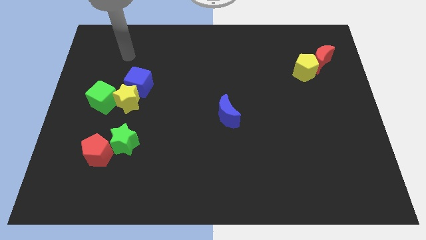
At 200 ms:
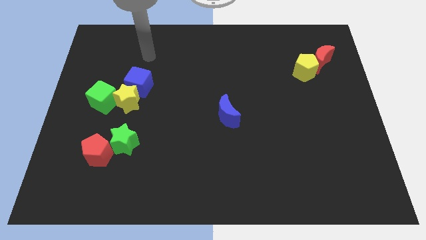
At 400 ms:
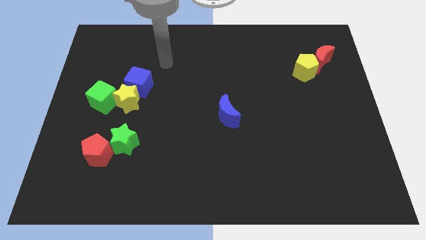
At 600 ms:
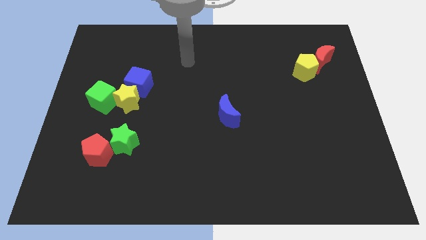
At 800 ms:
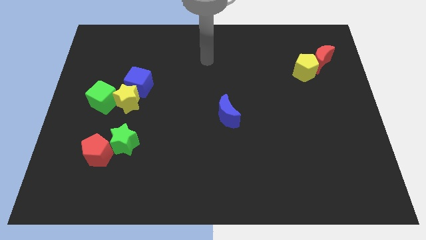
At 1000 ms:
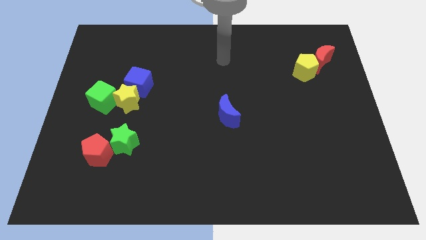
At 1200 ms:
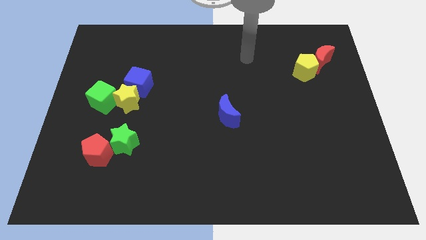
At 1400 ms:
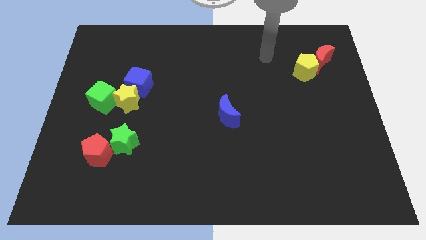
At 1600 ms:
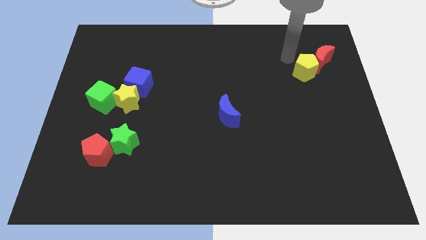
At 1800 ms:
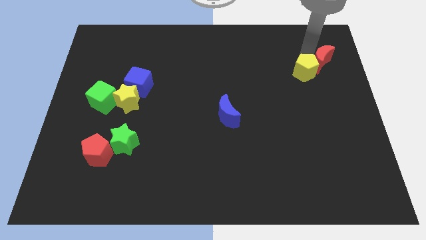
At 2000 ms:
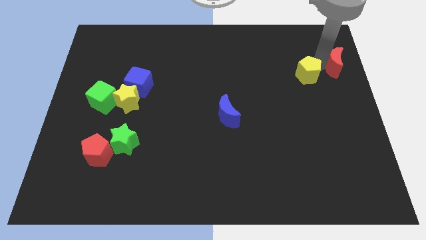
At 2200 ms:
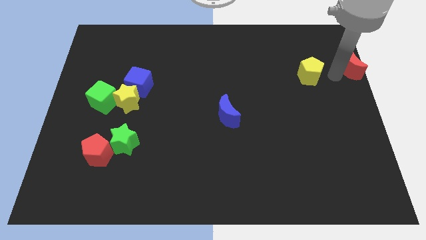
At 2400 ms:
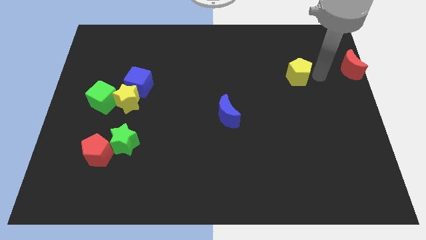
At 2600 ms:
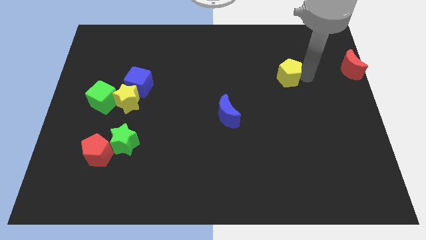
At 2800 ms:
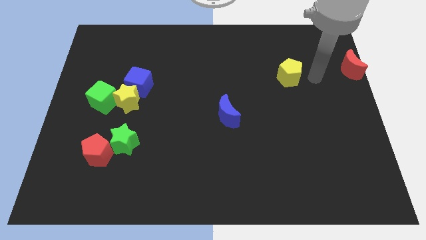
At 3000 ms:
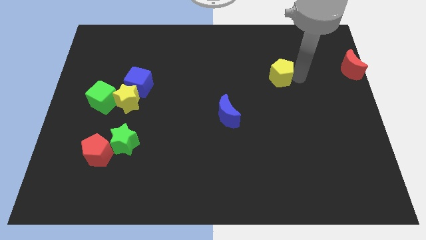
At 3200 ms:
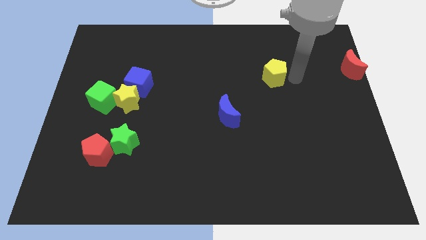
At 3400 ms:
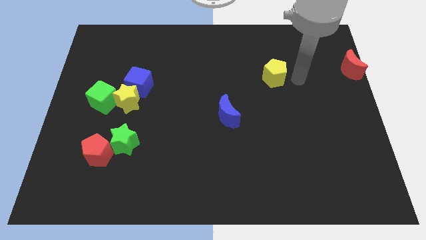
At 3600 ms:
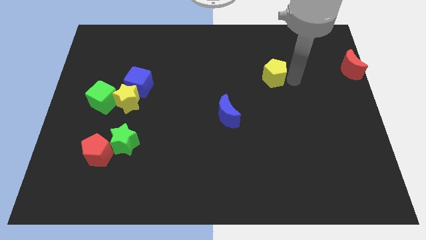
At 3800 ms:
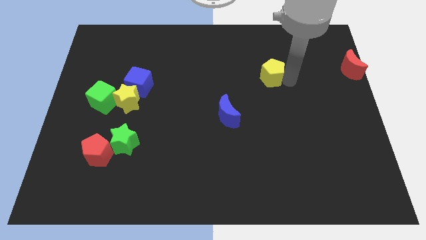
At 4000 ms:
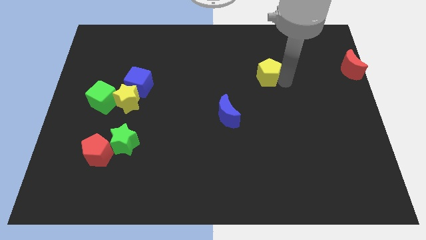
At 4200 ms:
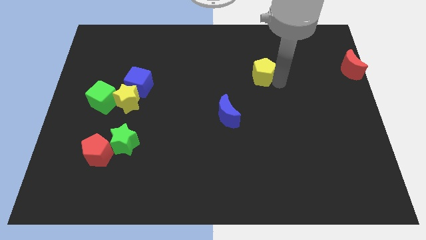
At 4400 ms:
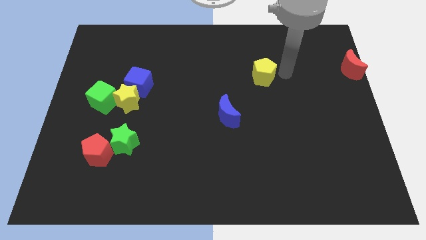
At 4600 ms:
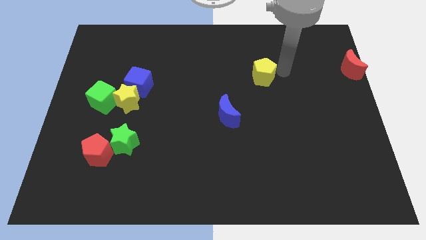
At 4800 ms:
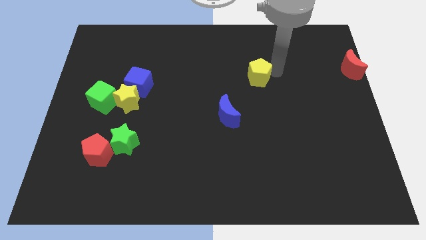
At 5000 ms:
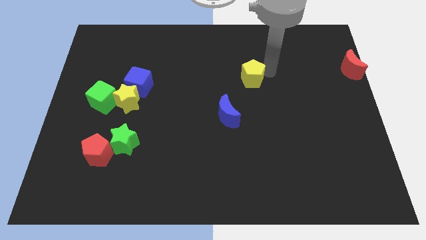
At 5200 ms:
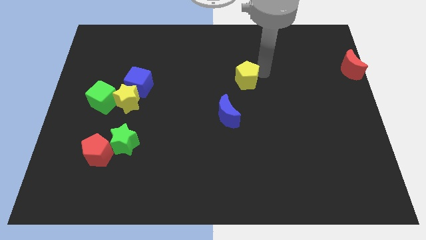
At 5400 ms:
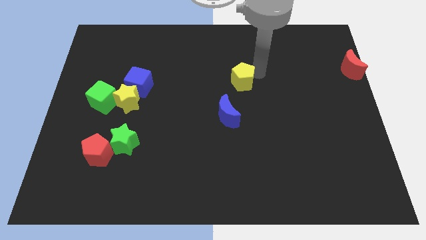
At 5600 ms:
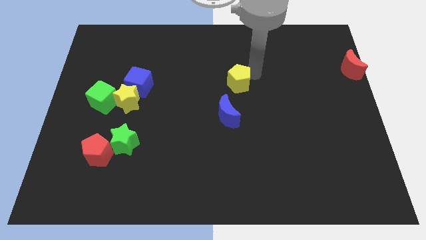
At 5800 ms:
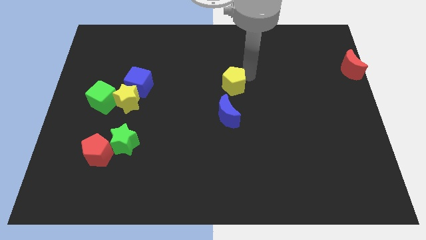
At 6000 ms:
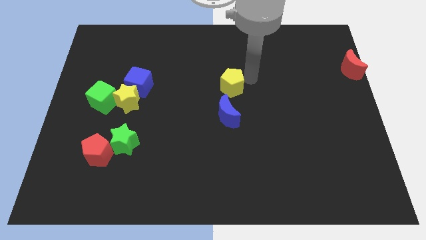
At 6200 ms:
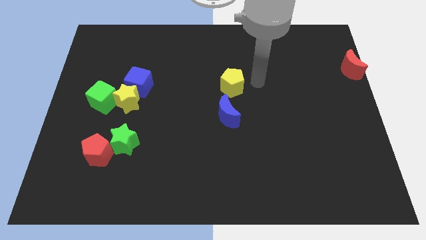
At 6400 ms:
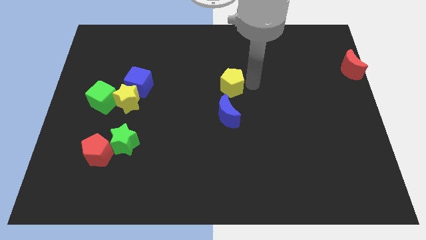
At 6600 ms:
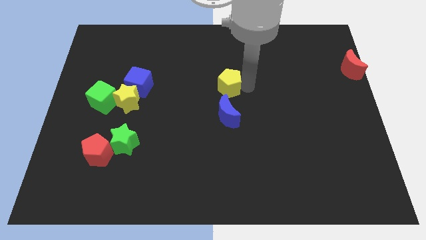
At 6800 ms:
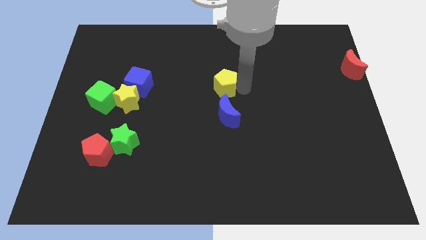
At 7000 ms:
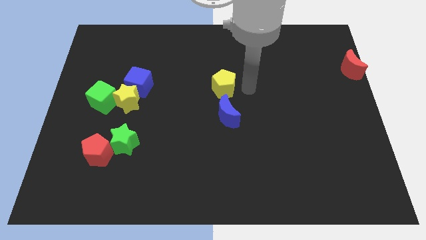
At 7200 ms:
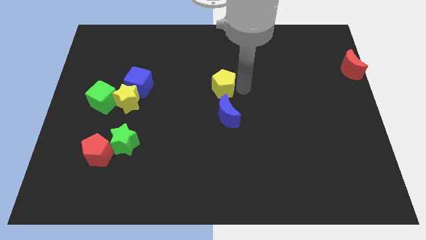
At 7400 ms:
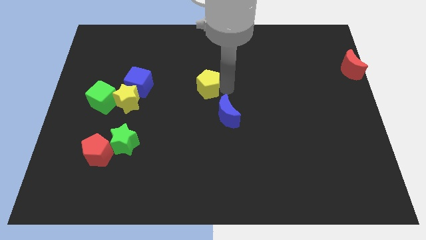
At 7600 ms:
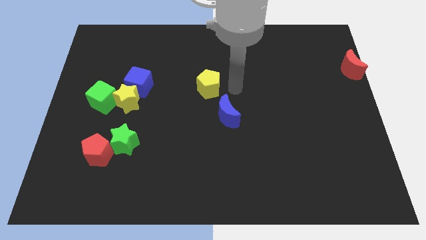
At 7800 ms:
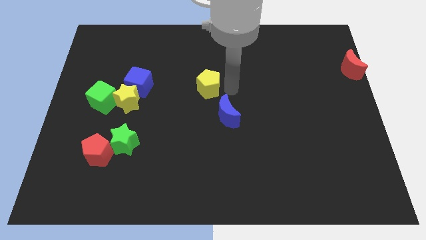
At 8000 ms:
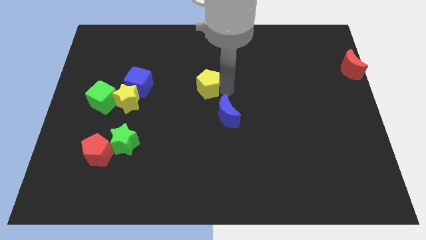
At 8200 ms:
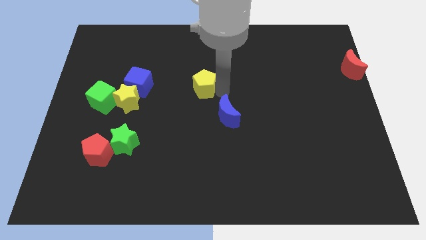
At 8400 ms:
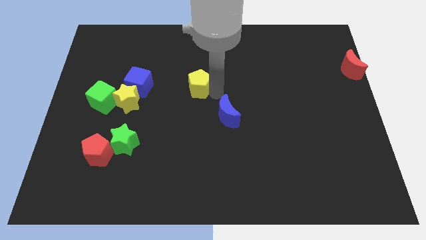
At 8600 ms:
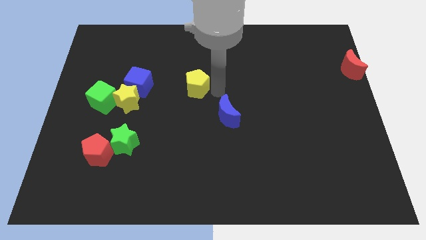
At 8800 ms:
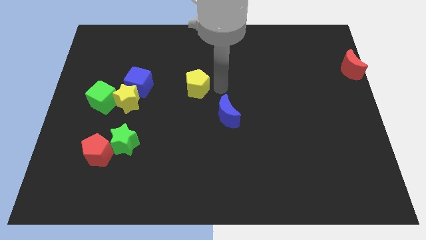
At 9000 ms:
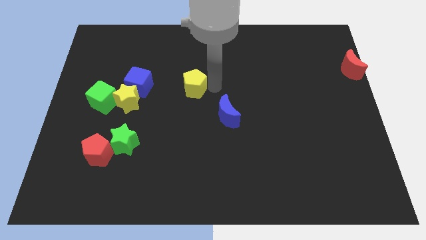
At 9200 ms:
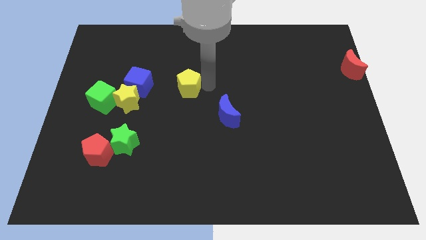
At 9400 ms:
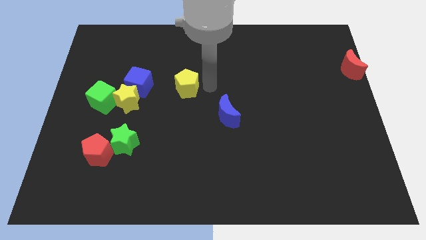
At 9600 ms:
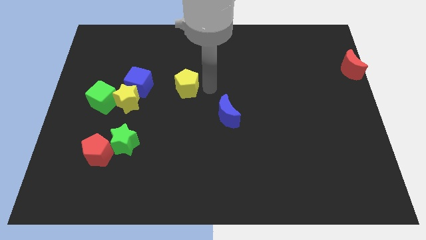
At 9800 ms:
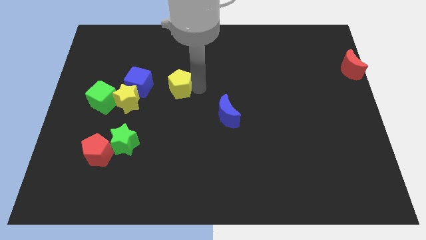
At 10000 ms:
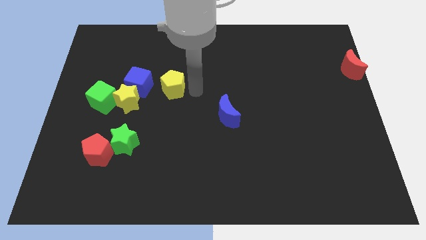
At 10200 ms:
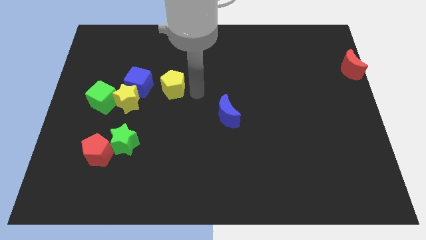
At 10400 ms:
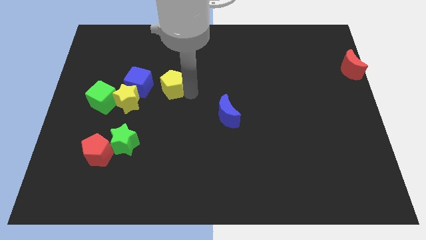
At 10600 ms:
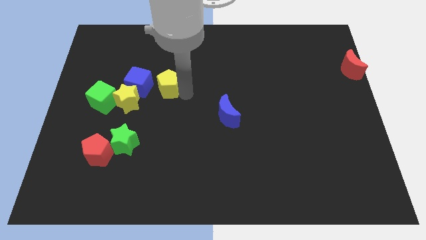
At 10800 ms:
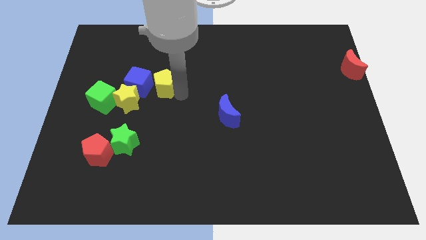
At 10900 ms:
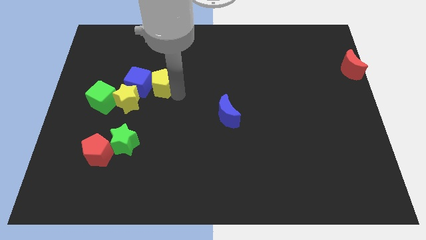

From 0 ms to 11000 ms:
move the yellow pentagon close to the blue cube

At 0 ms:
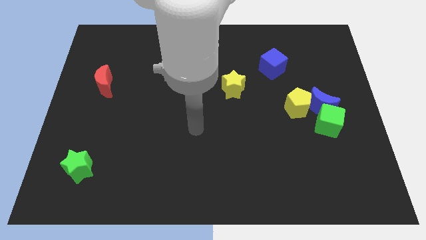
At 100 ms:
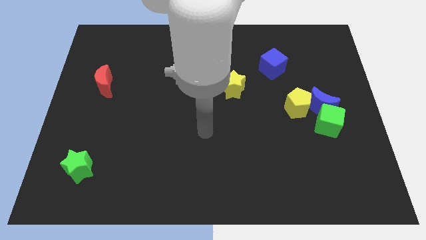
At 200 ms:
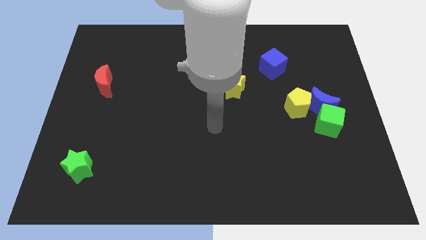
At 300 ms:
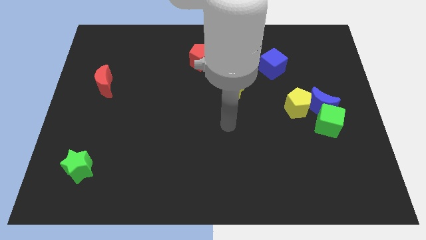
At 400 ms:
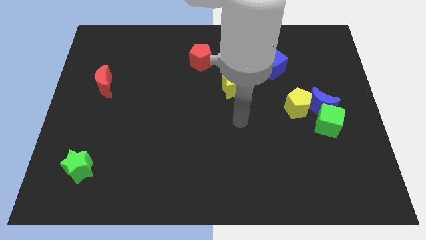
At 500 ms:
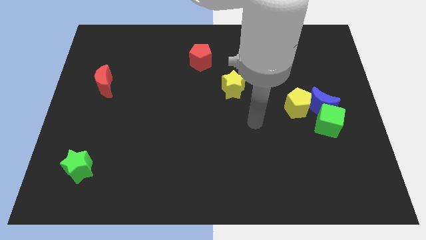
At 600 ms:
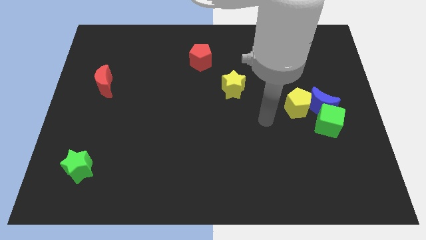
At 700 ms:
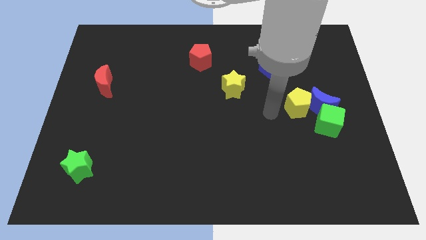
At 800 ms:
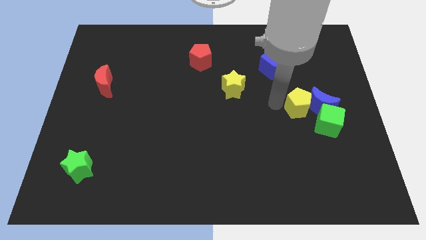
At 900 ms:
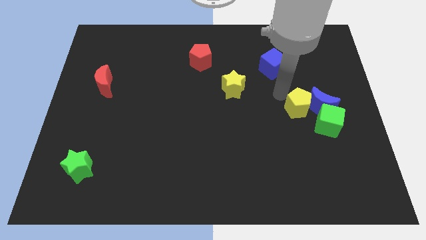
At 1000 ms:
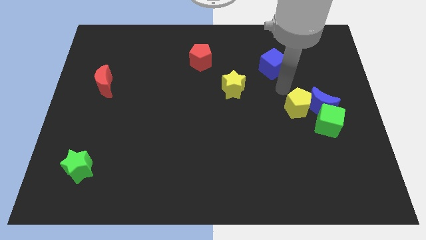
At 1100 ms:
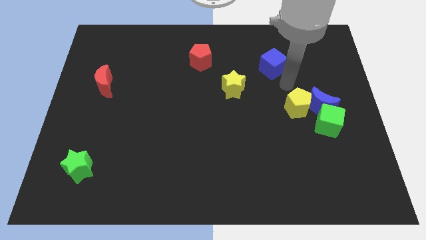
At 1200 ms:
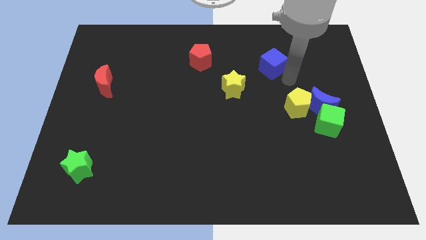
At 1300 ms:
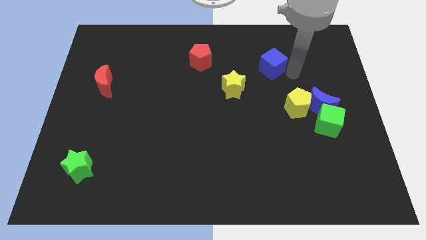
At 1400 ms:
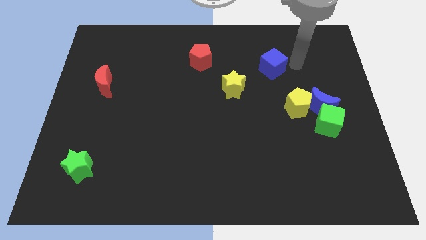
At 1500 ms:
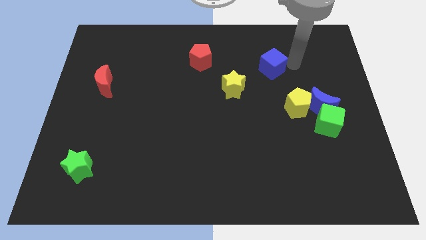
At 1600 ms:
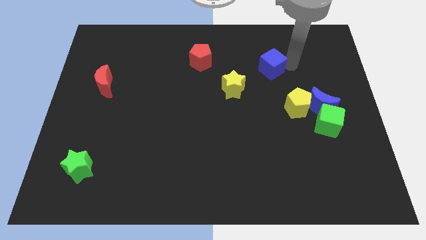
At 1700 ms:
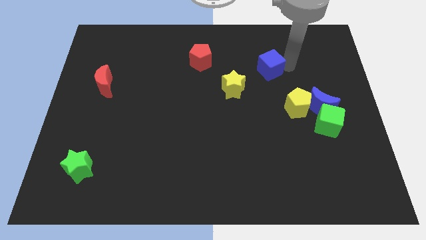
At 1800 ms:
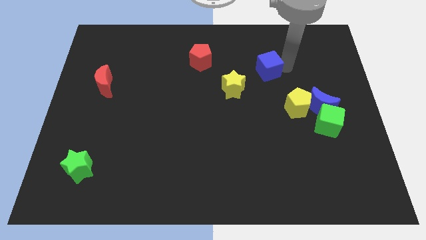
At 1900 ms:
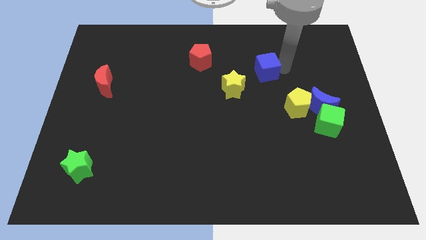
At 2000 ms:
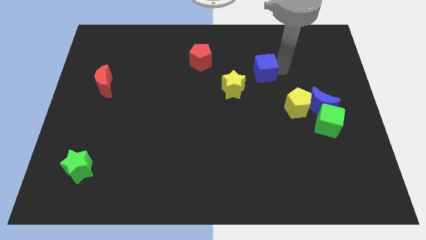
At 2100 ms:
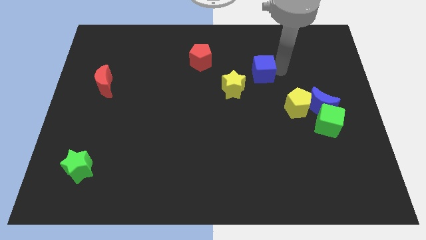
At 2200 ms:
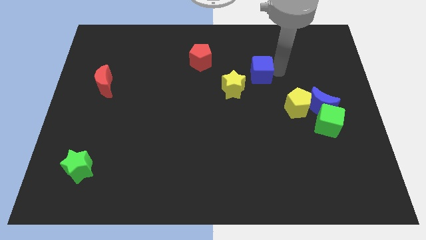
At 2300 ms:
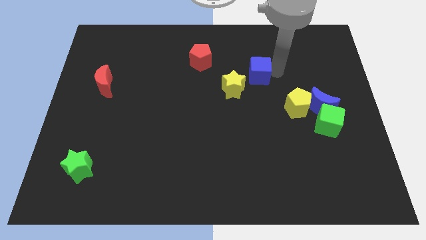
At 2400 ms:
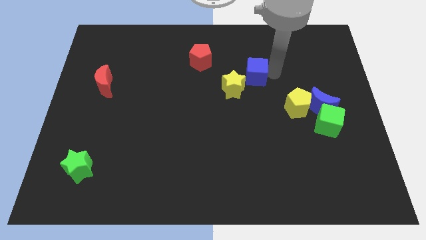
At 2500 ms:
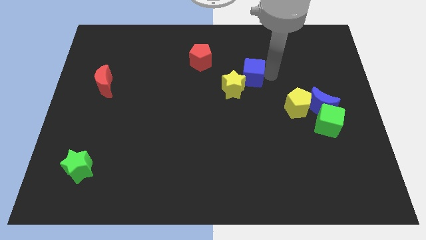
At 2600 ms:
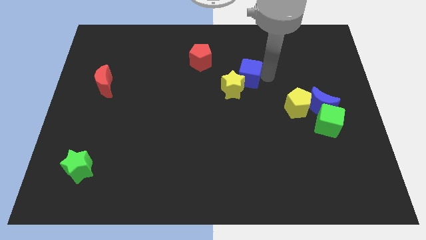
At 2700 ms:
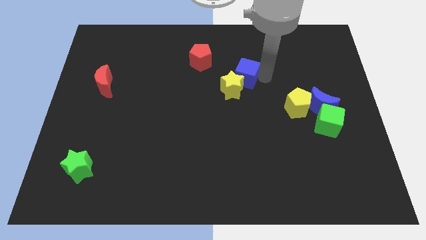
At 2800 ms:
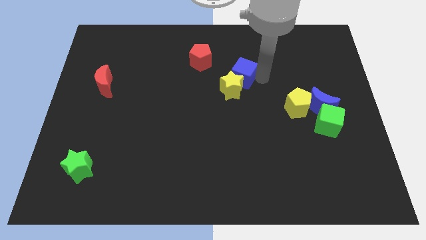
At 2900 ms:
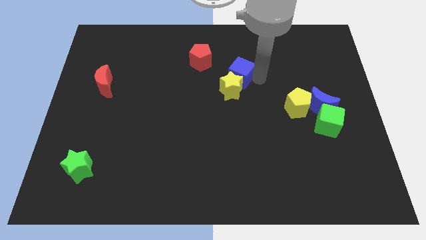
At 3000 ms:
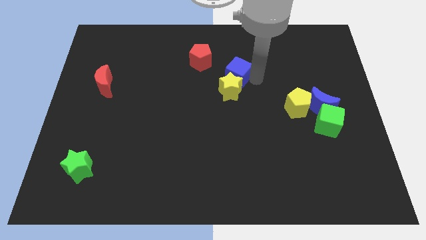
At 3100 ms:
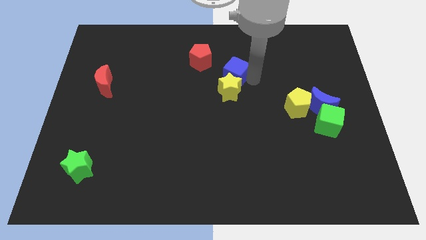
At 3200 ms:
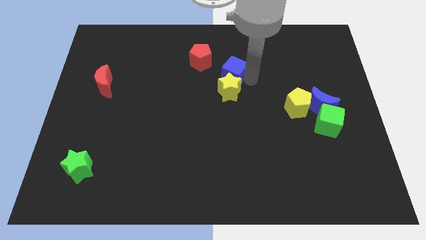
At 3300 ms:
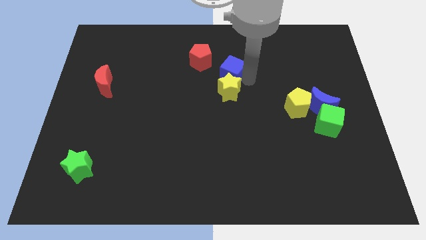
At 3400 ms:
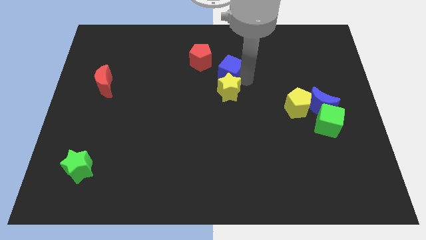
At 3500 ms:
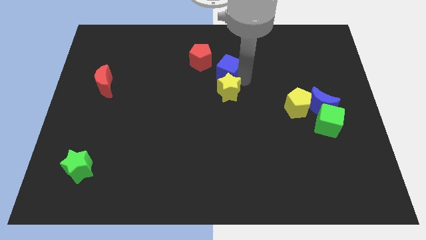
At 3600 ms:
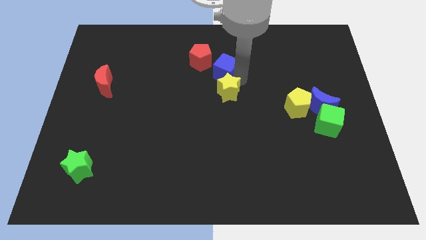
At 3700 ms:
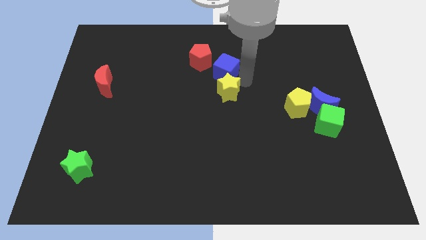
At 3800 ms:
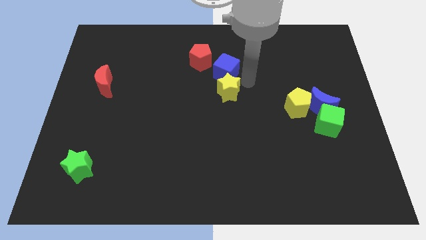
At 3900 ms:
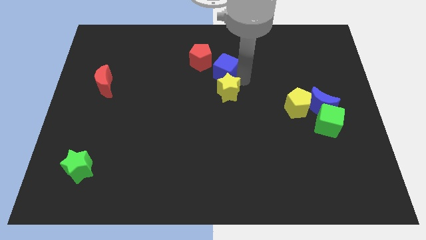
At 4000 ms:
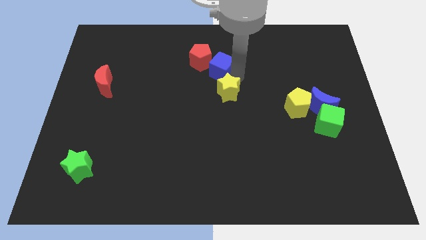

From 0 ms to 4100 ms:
move the blue cube close to the red pentagon
